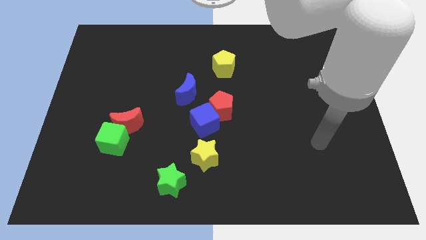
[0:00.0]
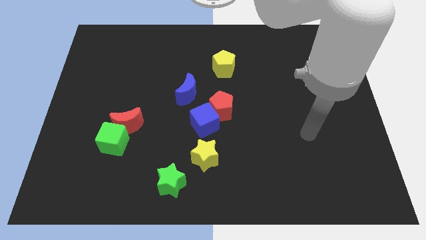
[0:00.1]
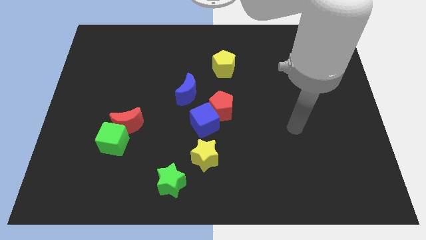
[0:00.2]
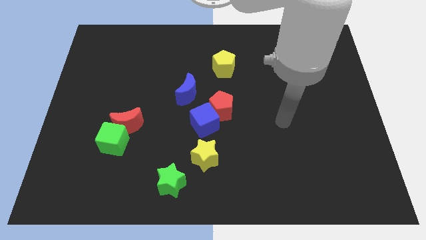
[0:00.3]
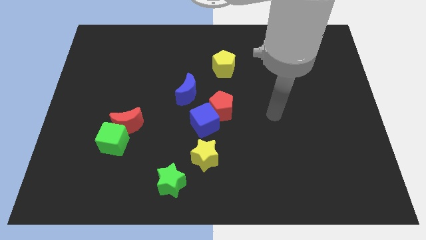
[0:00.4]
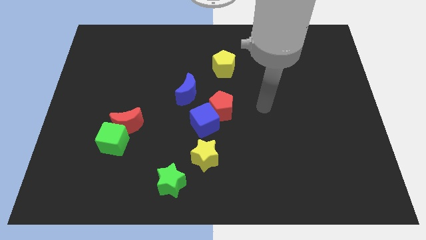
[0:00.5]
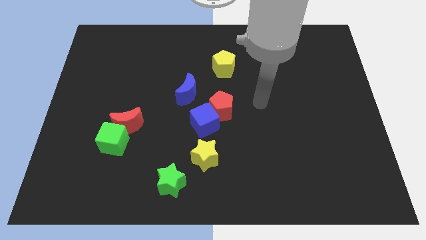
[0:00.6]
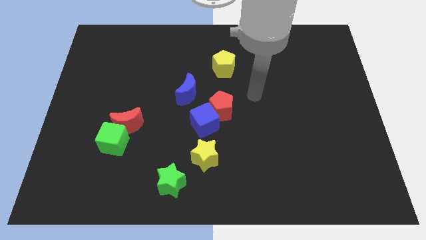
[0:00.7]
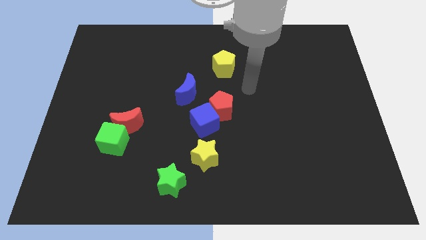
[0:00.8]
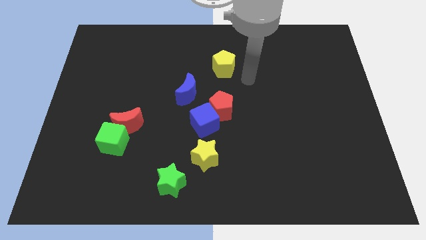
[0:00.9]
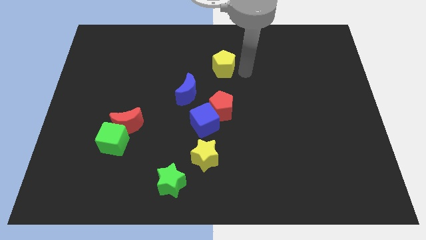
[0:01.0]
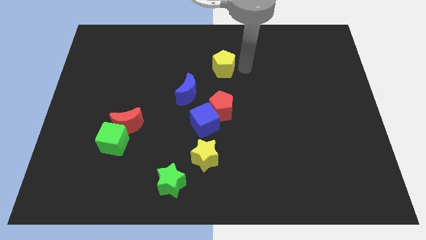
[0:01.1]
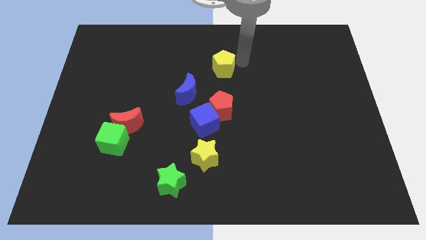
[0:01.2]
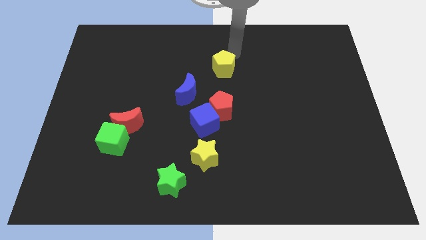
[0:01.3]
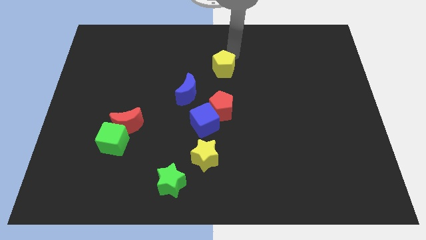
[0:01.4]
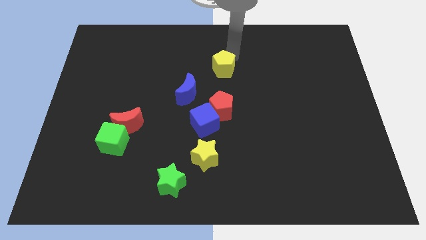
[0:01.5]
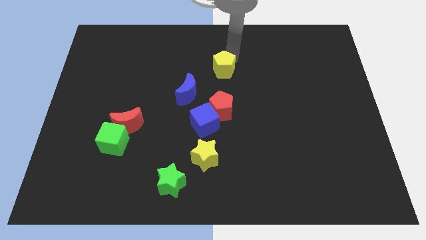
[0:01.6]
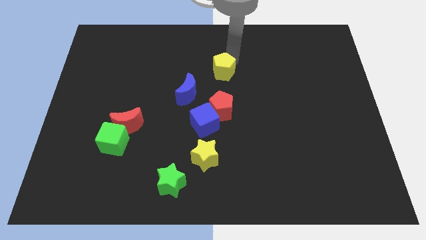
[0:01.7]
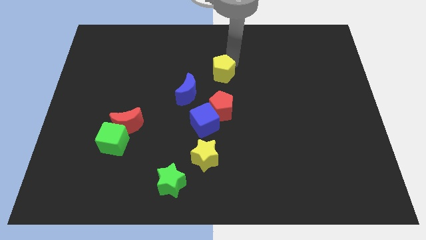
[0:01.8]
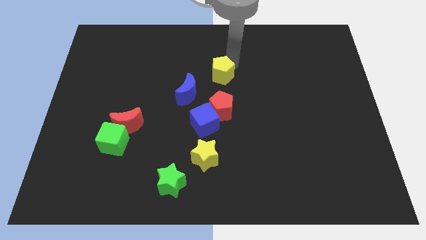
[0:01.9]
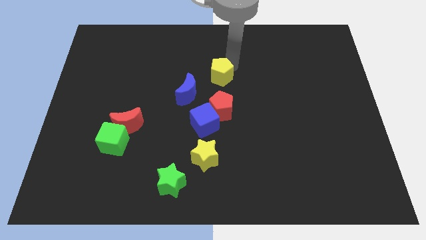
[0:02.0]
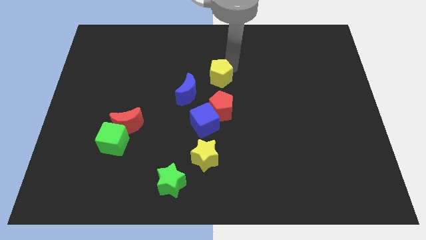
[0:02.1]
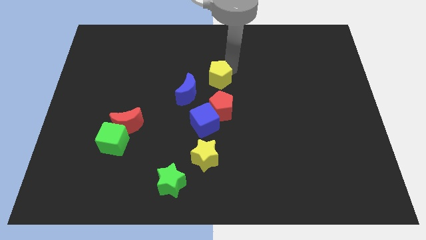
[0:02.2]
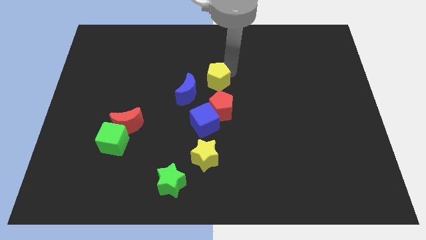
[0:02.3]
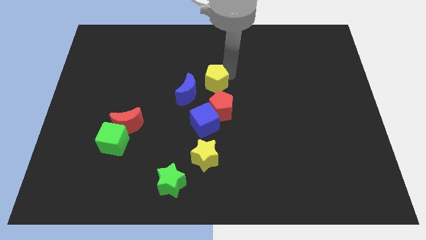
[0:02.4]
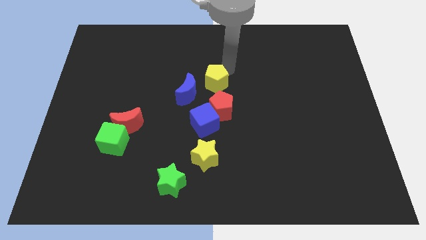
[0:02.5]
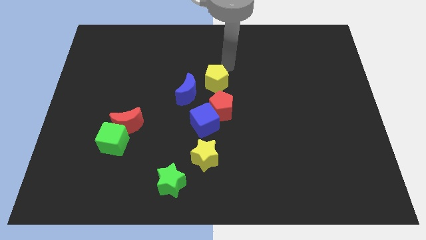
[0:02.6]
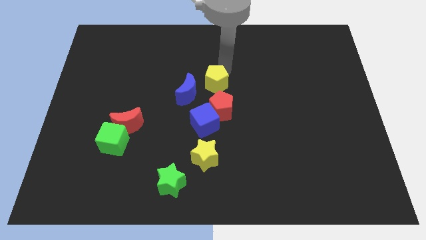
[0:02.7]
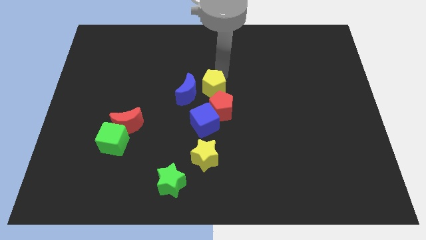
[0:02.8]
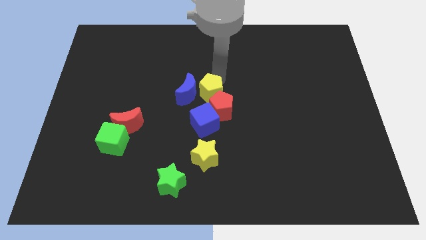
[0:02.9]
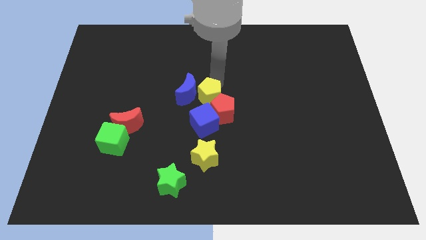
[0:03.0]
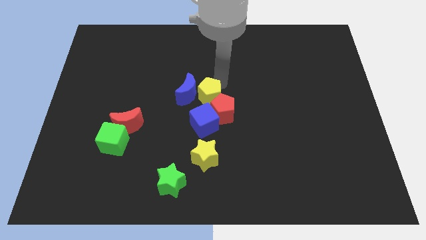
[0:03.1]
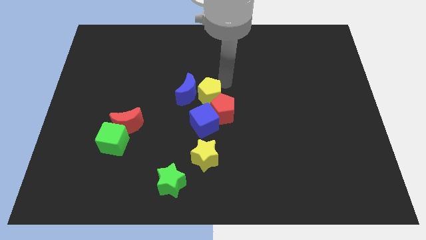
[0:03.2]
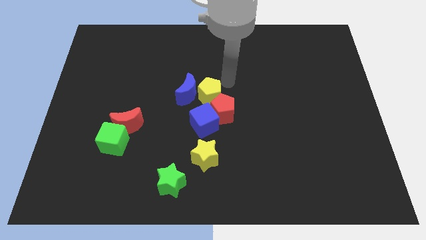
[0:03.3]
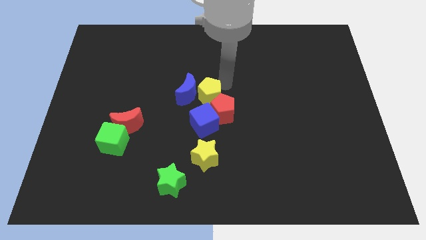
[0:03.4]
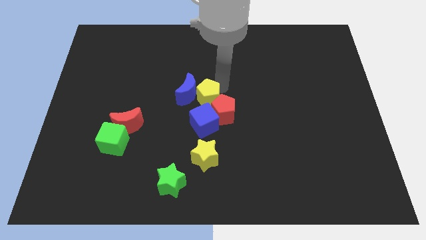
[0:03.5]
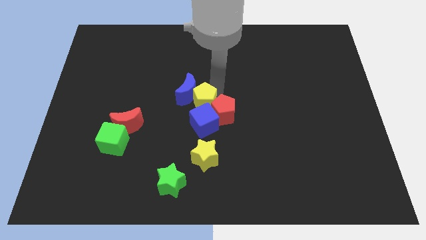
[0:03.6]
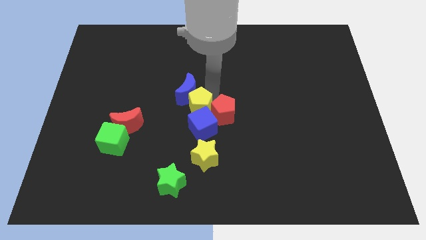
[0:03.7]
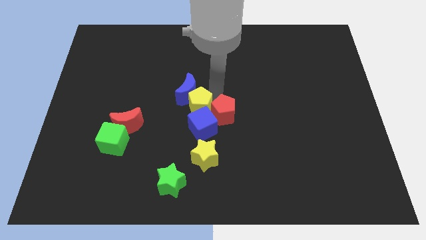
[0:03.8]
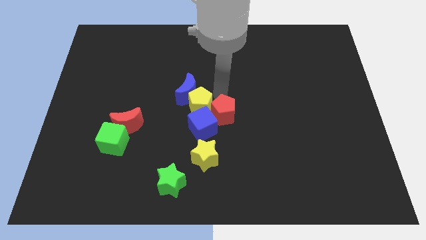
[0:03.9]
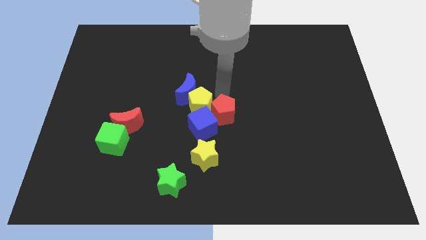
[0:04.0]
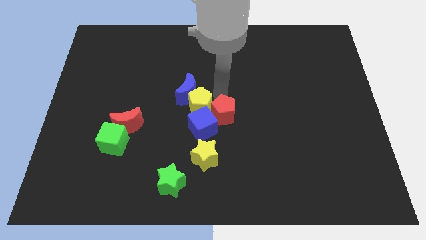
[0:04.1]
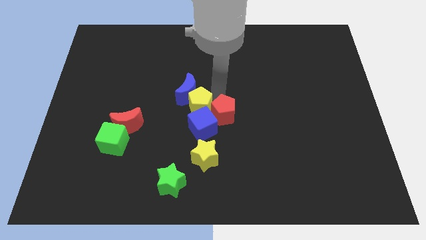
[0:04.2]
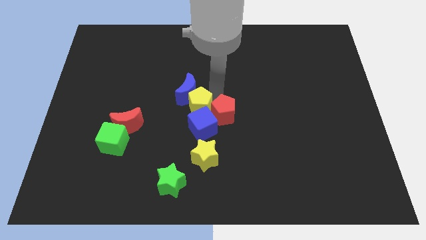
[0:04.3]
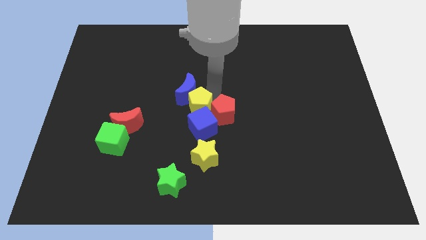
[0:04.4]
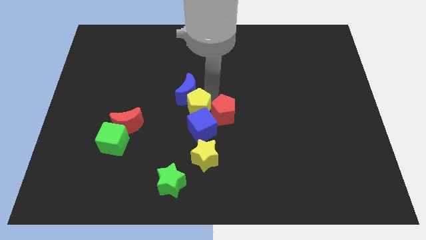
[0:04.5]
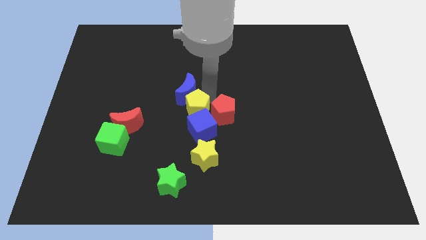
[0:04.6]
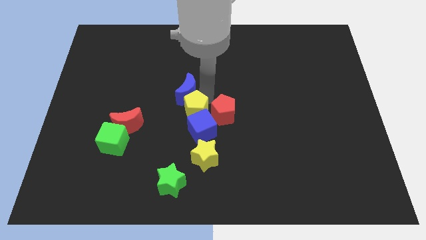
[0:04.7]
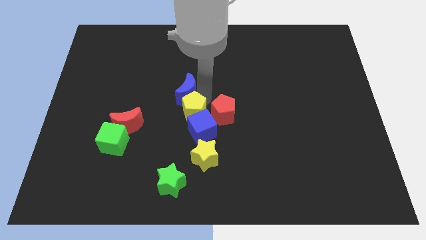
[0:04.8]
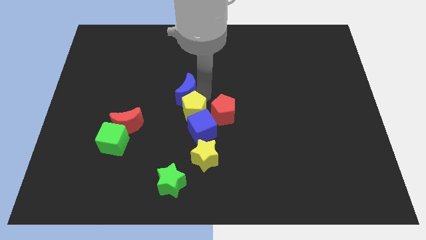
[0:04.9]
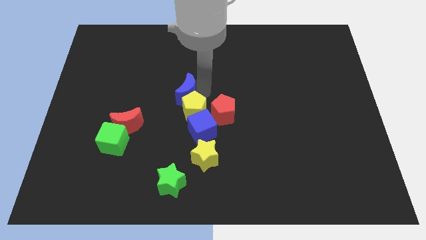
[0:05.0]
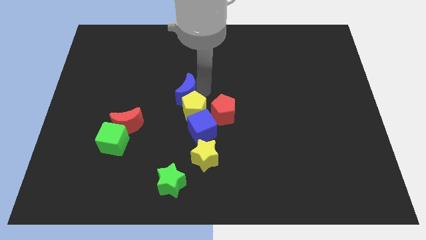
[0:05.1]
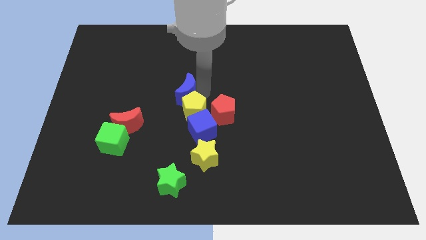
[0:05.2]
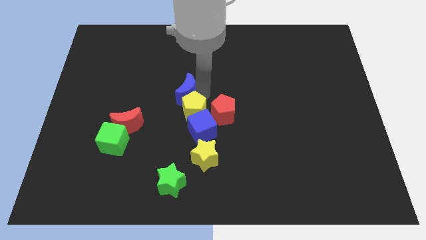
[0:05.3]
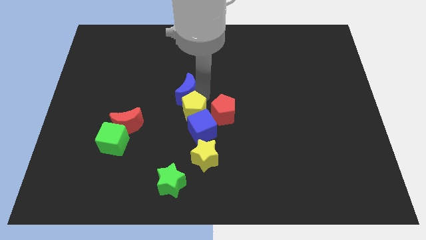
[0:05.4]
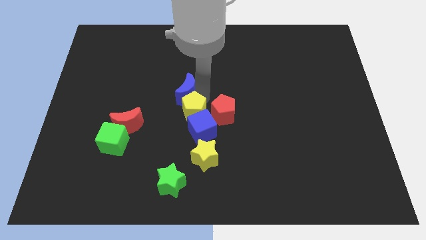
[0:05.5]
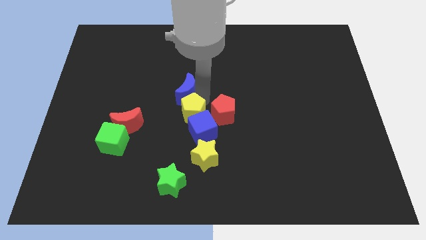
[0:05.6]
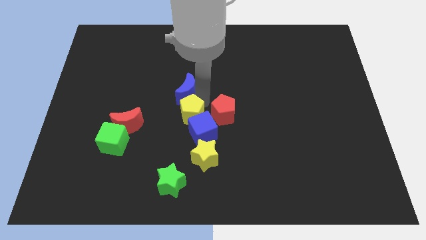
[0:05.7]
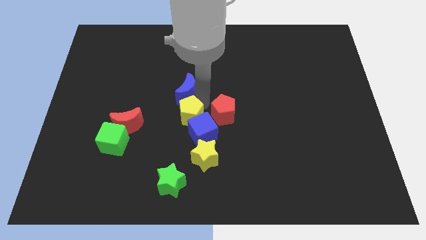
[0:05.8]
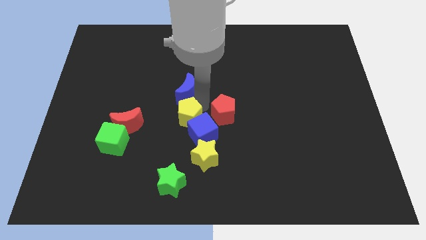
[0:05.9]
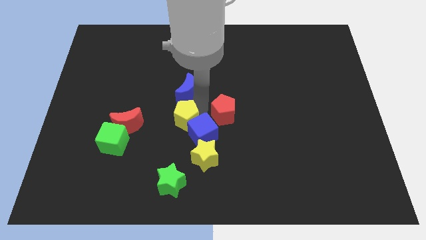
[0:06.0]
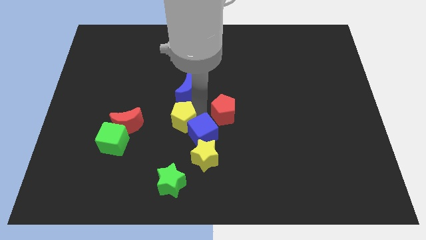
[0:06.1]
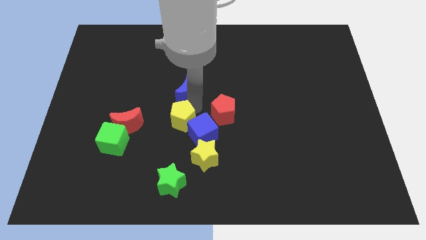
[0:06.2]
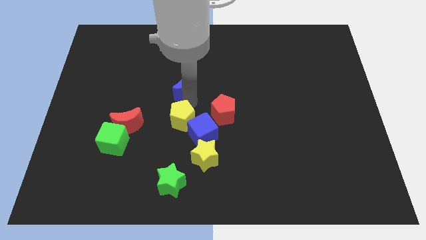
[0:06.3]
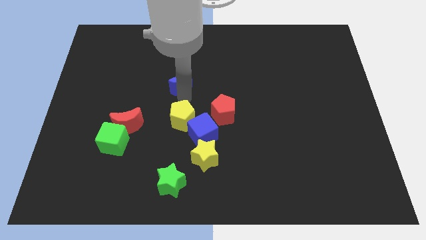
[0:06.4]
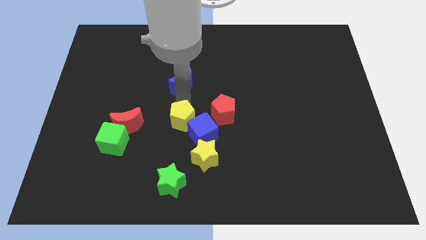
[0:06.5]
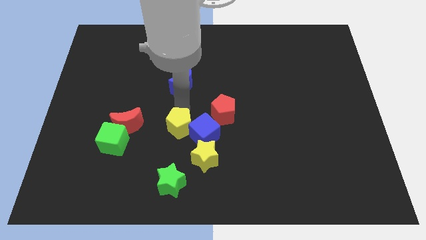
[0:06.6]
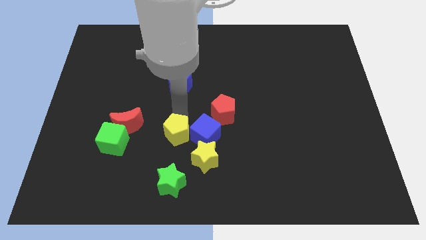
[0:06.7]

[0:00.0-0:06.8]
put the yellow pentagon to the bottom left of the blue cube
